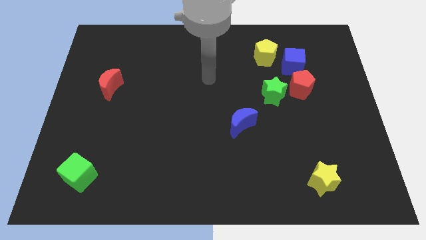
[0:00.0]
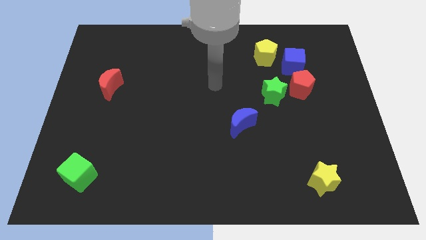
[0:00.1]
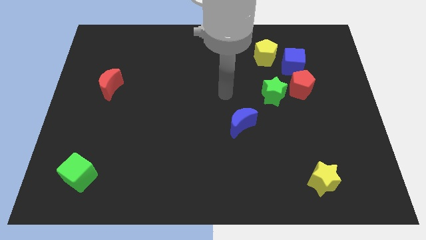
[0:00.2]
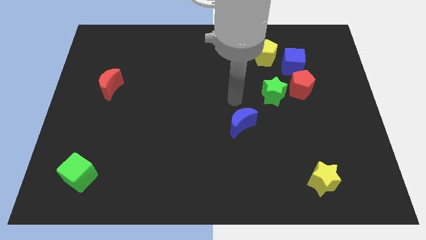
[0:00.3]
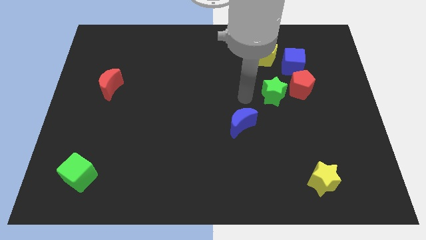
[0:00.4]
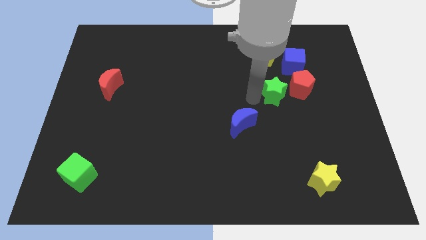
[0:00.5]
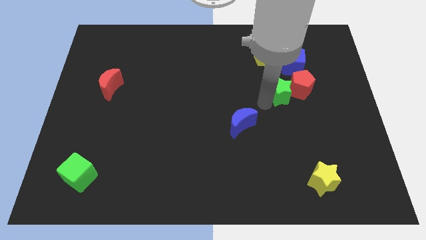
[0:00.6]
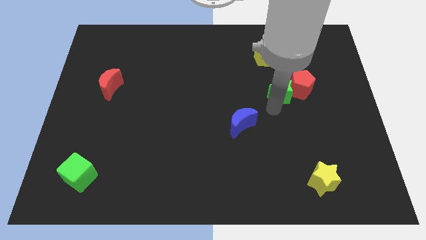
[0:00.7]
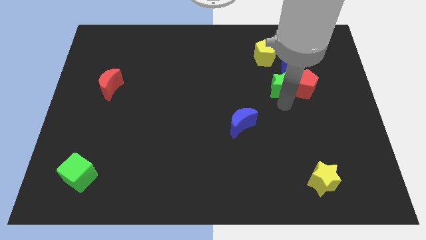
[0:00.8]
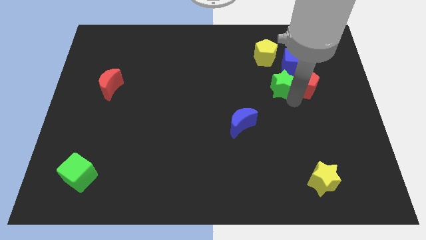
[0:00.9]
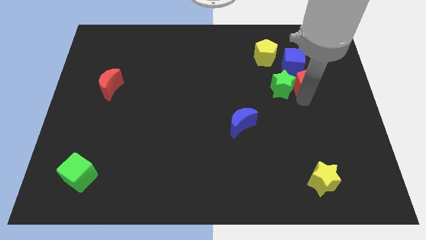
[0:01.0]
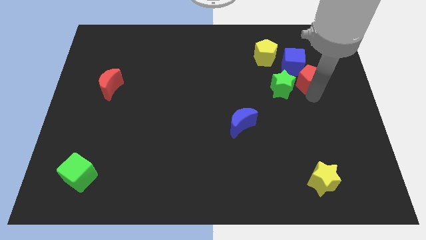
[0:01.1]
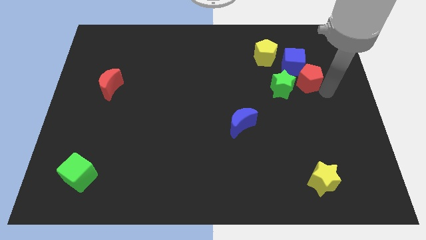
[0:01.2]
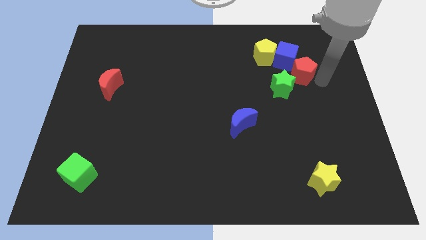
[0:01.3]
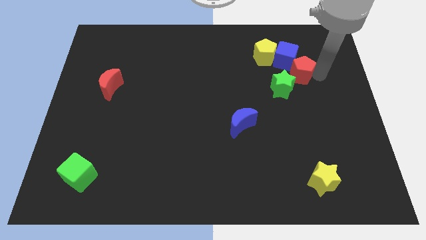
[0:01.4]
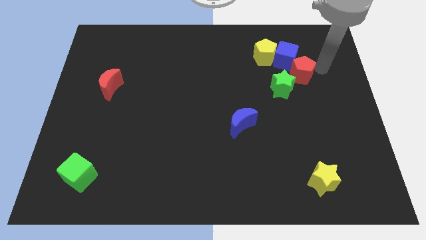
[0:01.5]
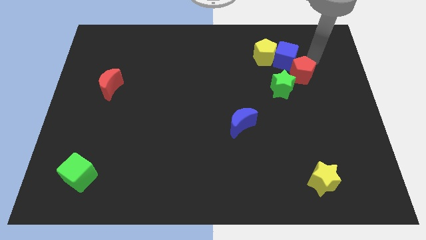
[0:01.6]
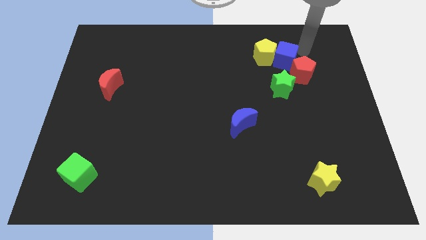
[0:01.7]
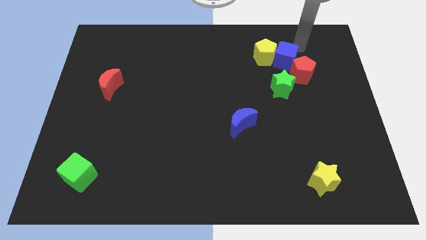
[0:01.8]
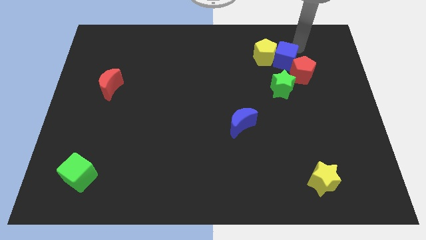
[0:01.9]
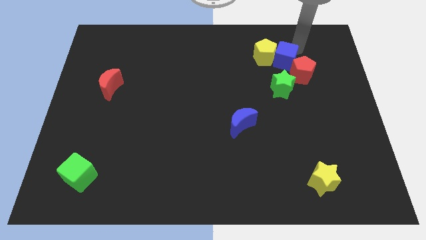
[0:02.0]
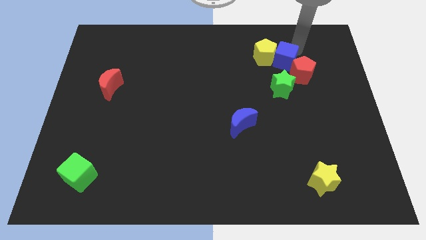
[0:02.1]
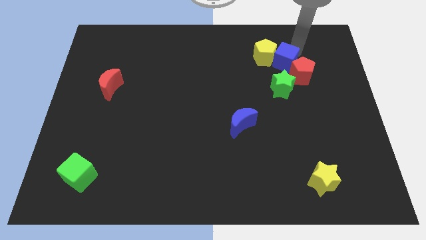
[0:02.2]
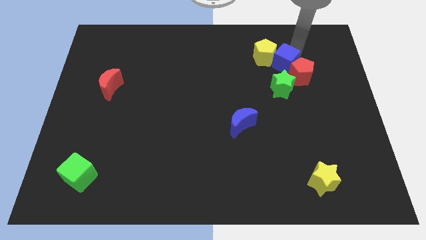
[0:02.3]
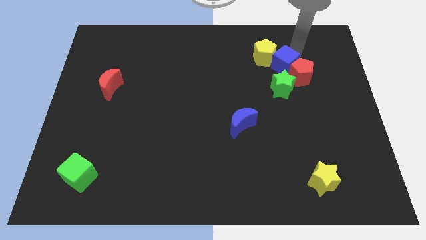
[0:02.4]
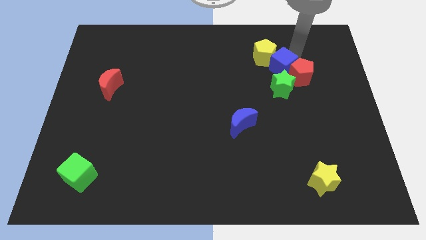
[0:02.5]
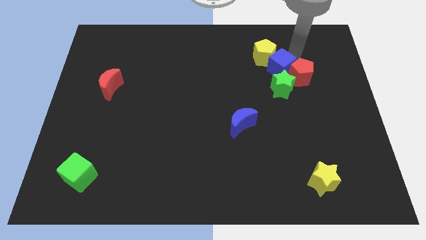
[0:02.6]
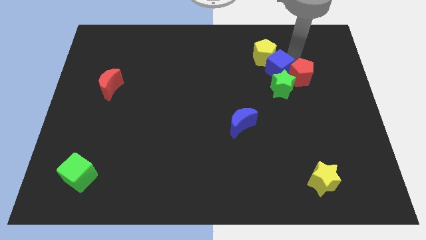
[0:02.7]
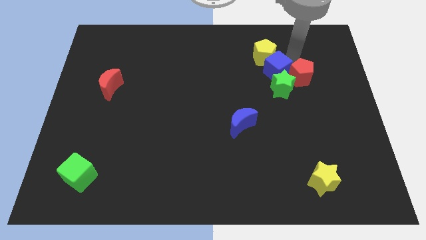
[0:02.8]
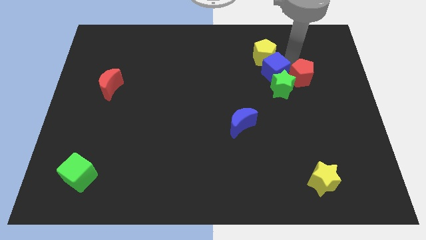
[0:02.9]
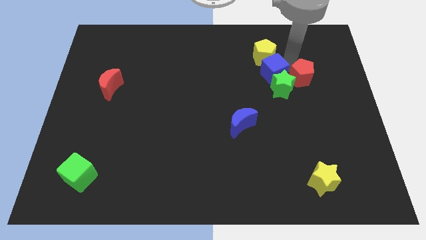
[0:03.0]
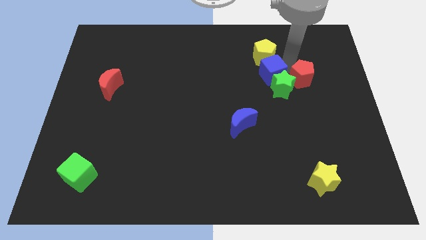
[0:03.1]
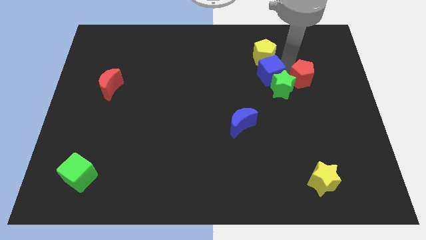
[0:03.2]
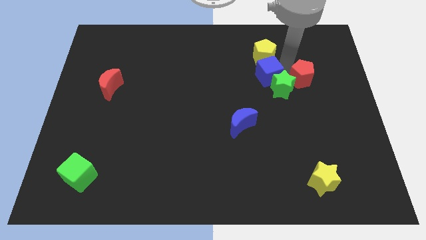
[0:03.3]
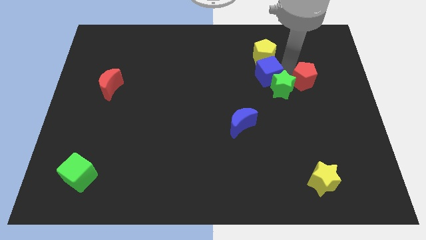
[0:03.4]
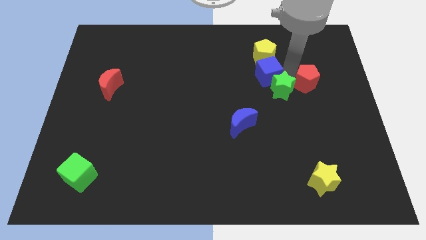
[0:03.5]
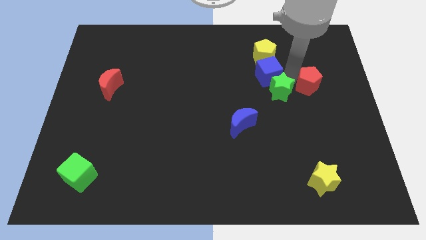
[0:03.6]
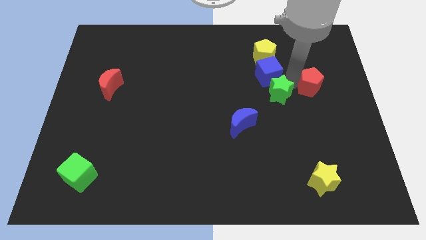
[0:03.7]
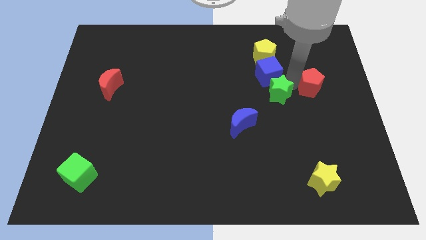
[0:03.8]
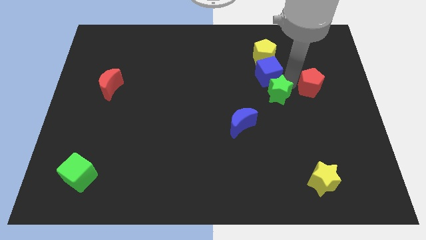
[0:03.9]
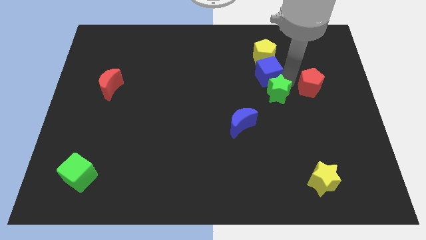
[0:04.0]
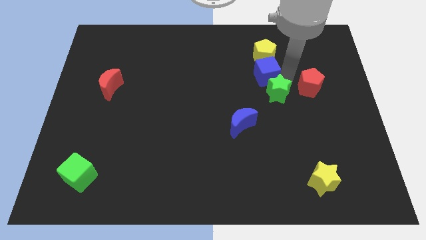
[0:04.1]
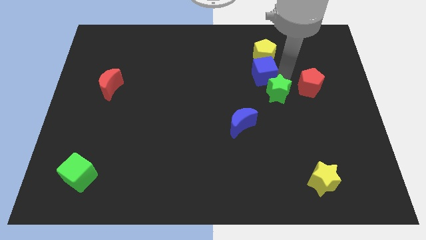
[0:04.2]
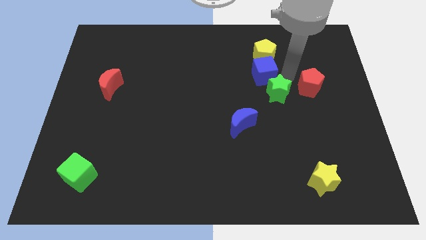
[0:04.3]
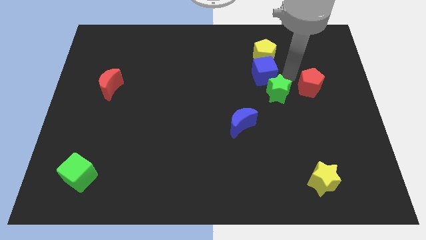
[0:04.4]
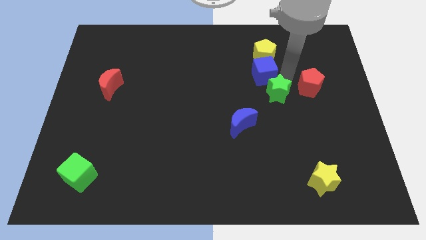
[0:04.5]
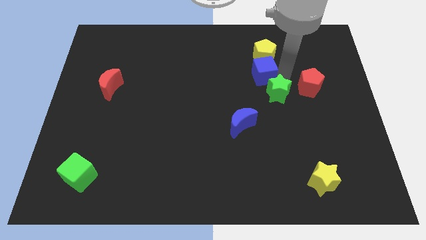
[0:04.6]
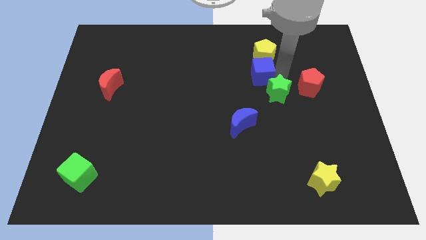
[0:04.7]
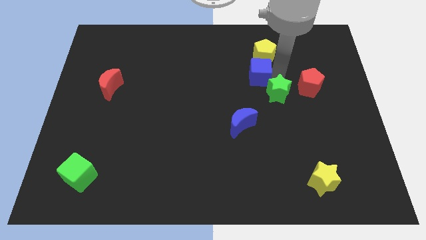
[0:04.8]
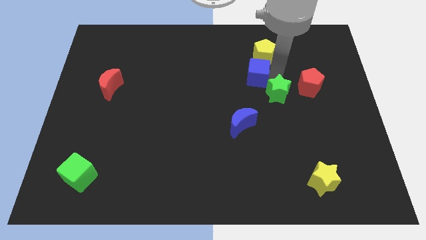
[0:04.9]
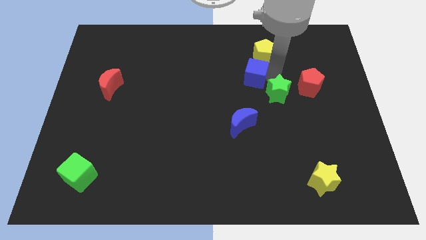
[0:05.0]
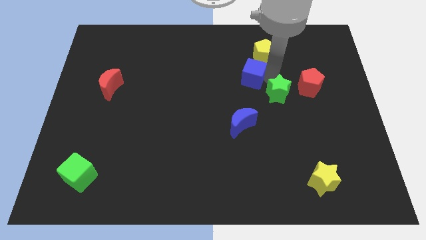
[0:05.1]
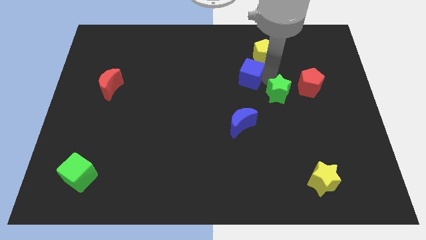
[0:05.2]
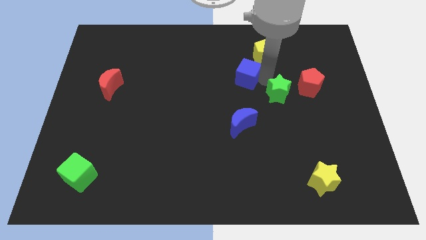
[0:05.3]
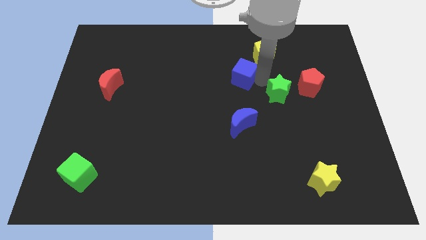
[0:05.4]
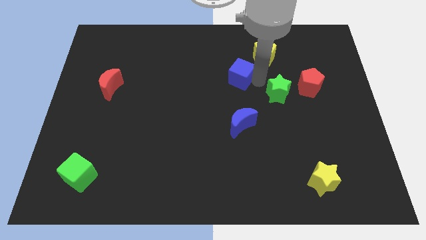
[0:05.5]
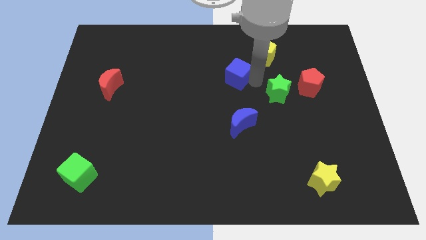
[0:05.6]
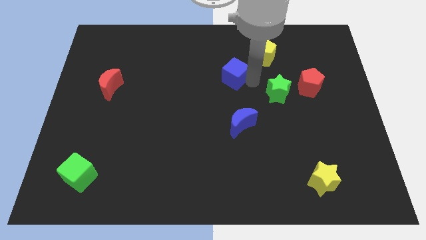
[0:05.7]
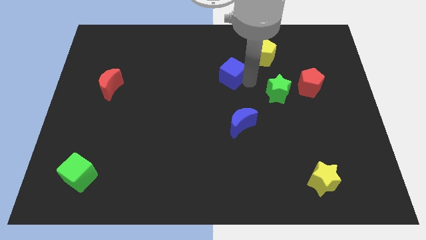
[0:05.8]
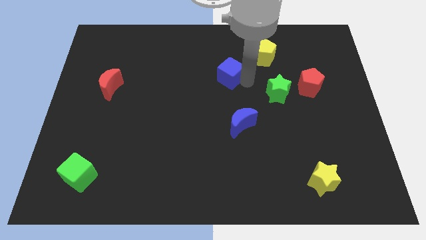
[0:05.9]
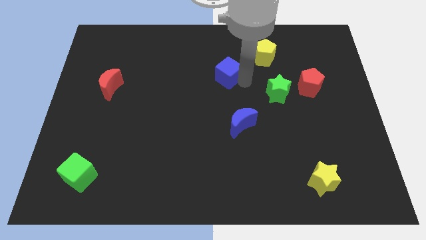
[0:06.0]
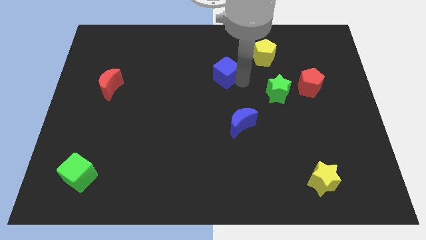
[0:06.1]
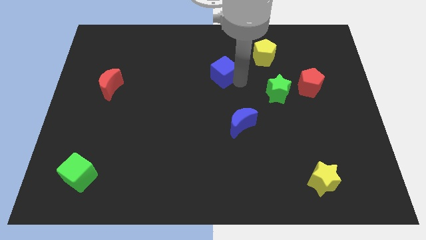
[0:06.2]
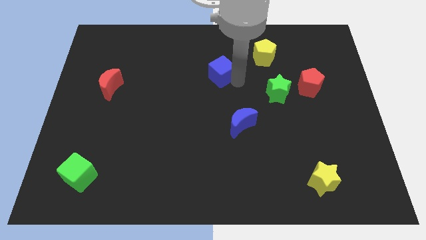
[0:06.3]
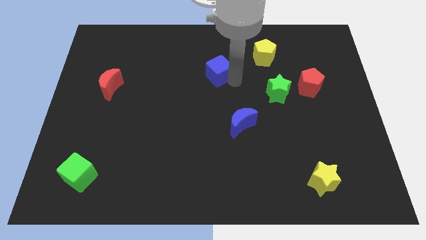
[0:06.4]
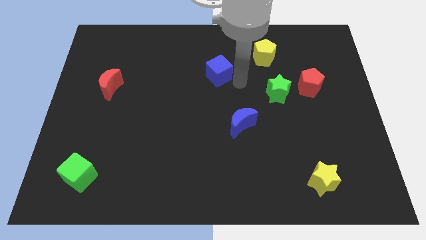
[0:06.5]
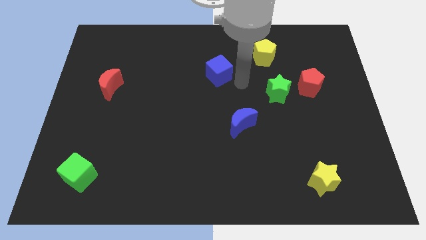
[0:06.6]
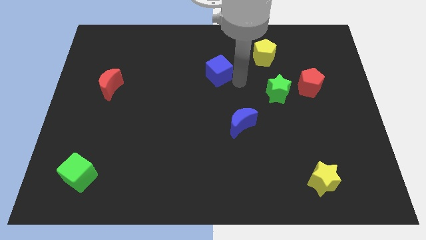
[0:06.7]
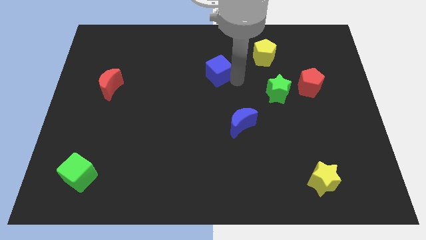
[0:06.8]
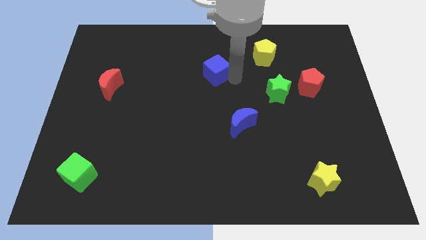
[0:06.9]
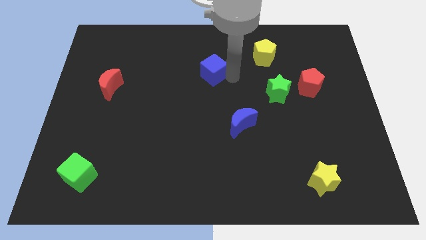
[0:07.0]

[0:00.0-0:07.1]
move the blue cube to the left

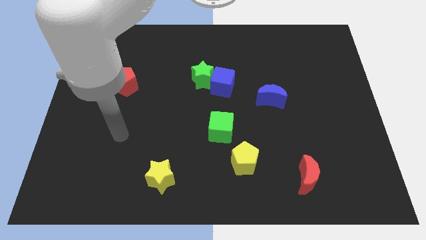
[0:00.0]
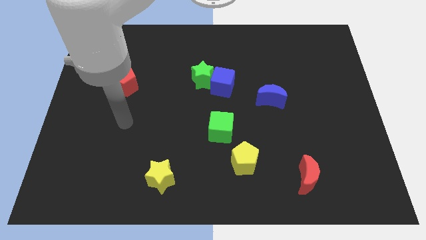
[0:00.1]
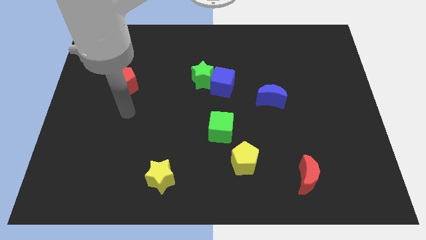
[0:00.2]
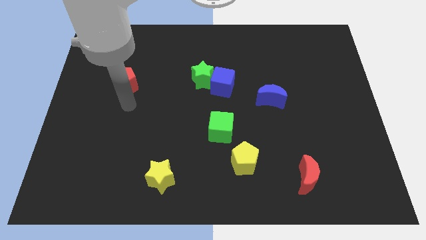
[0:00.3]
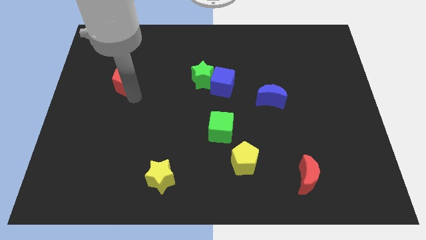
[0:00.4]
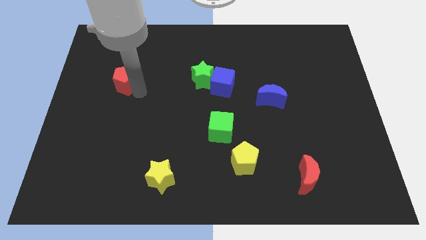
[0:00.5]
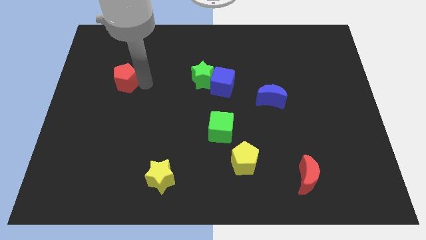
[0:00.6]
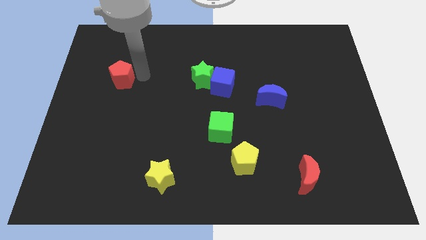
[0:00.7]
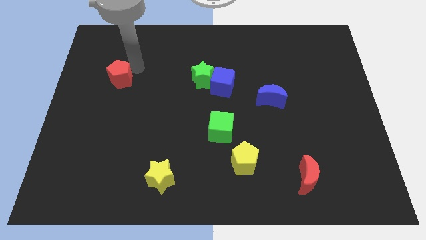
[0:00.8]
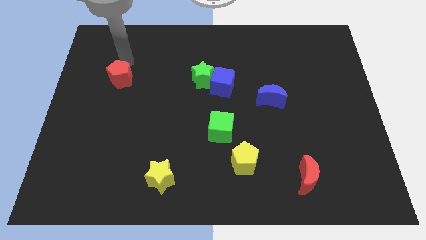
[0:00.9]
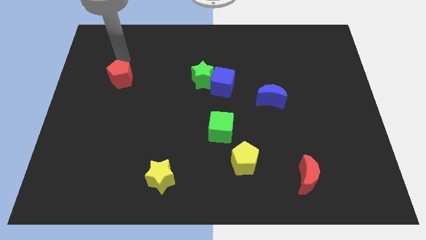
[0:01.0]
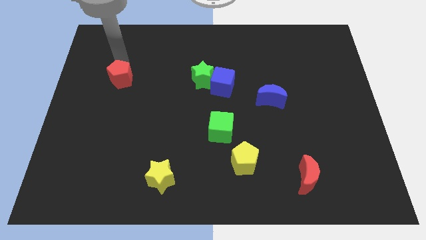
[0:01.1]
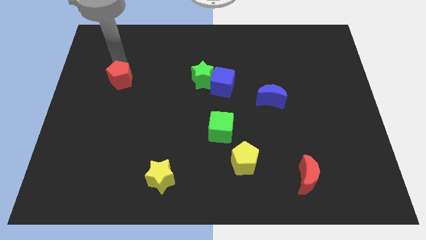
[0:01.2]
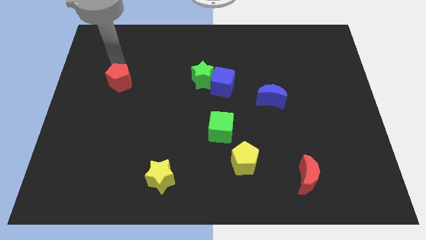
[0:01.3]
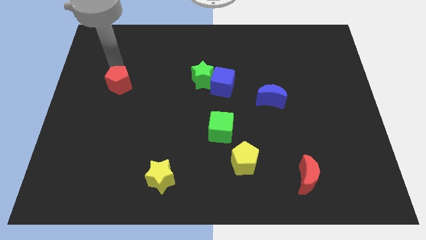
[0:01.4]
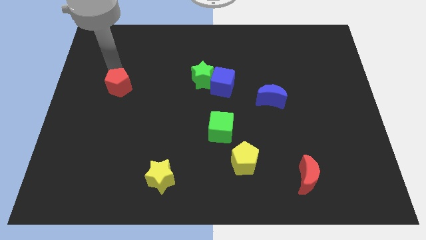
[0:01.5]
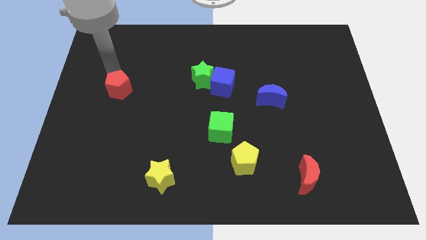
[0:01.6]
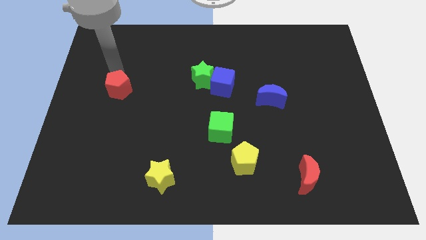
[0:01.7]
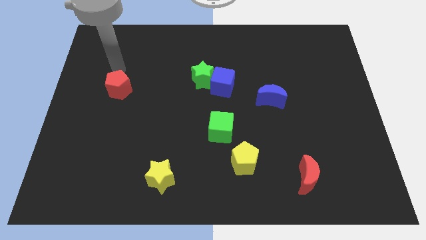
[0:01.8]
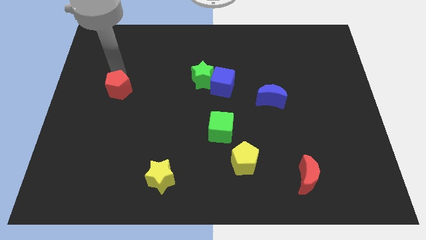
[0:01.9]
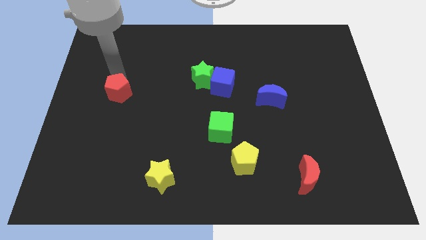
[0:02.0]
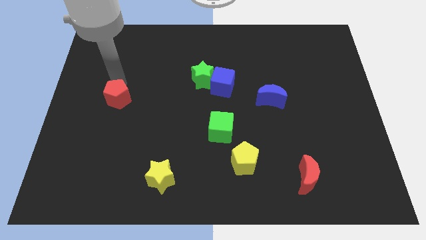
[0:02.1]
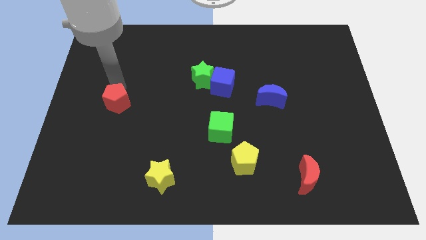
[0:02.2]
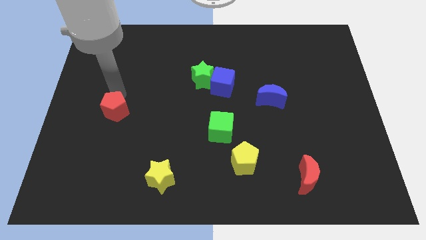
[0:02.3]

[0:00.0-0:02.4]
slightly slide the red pentagon down
